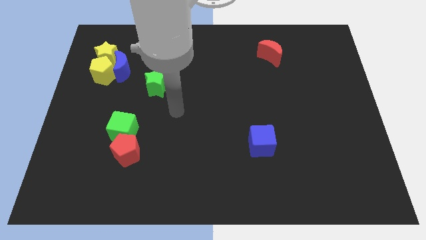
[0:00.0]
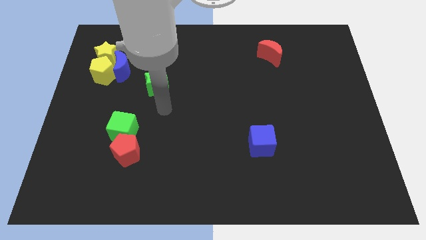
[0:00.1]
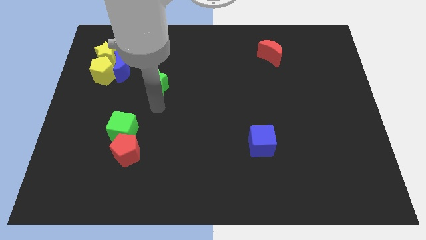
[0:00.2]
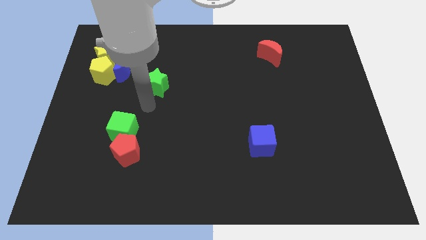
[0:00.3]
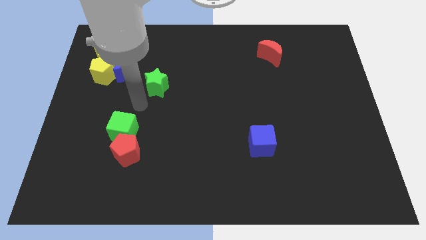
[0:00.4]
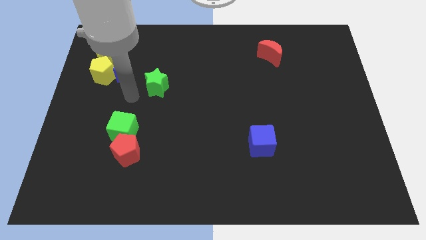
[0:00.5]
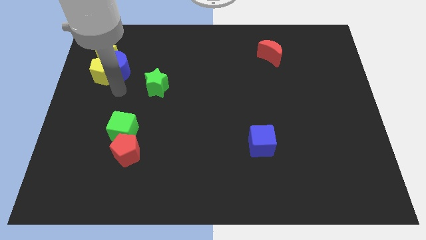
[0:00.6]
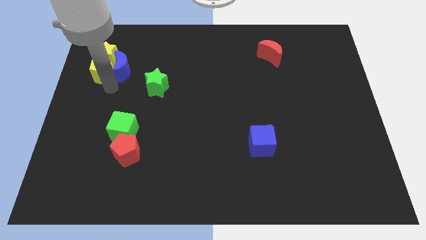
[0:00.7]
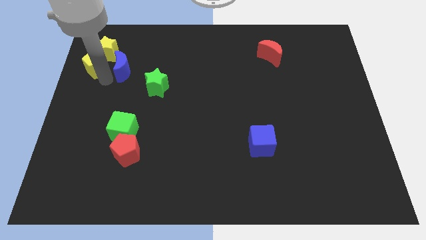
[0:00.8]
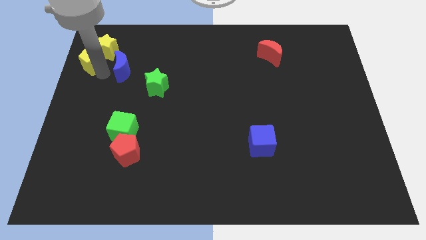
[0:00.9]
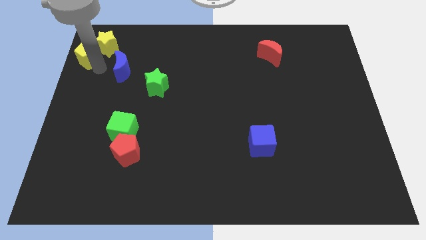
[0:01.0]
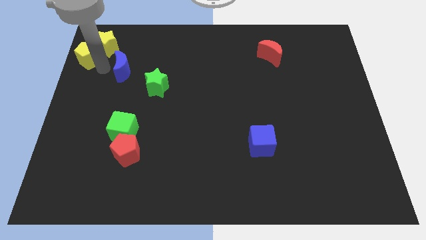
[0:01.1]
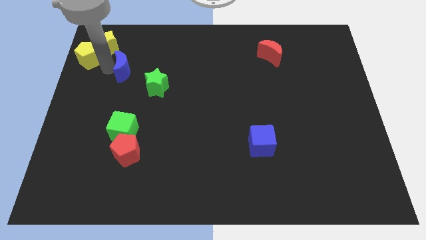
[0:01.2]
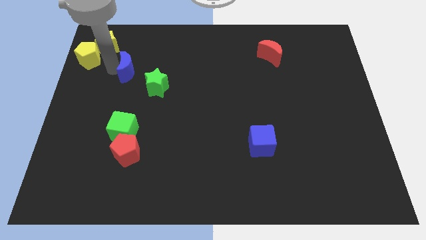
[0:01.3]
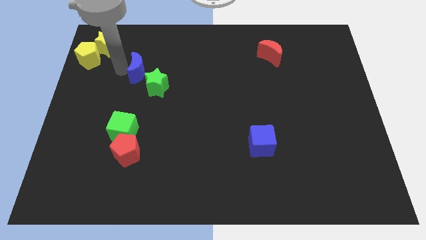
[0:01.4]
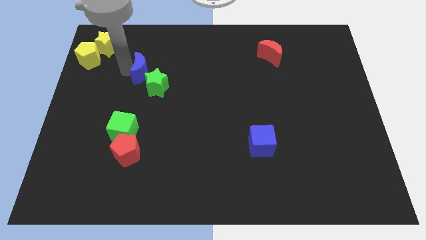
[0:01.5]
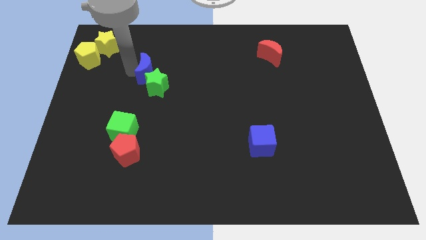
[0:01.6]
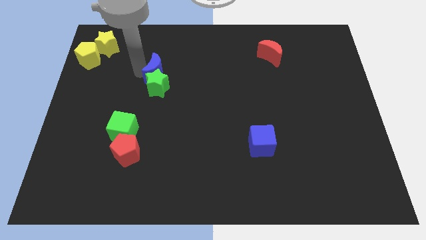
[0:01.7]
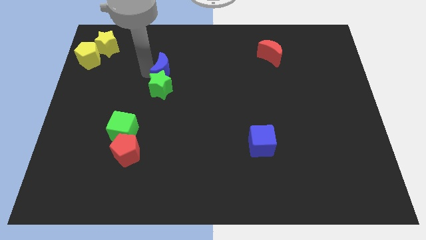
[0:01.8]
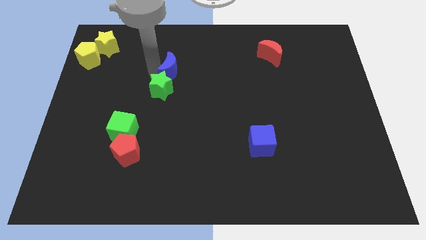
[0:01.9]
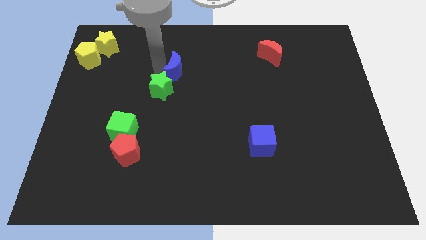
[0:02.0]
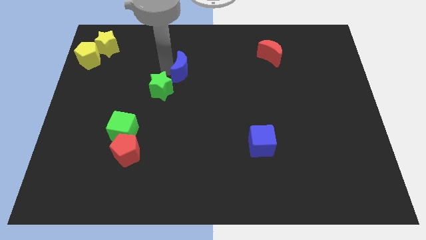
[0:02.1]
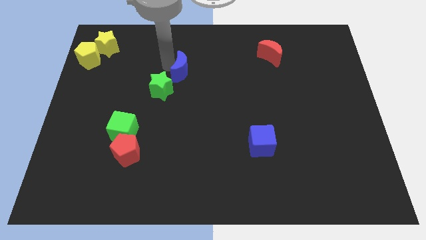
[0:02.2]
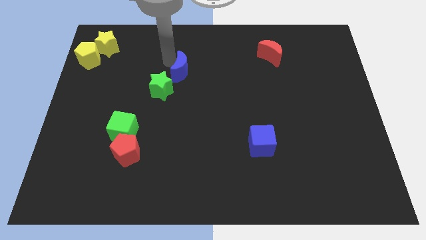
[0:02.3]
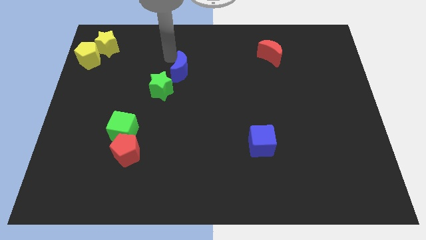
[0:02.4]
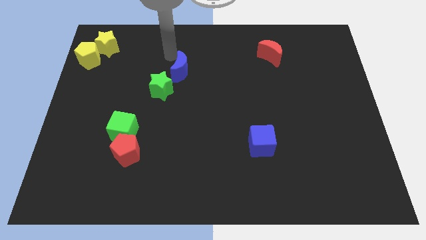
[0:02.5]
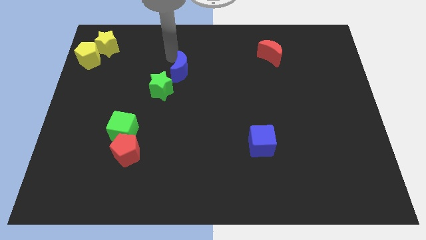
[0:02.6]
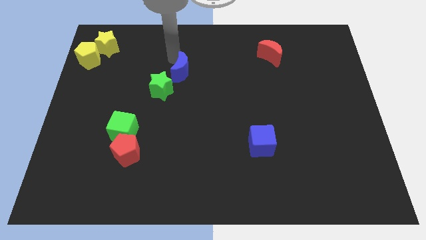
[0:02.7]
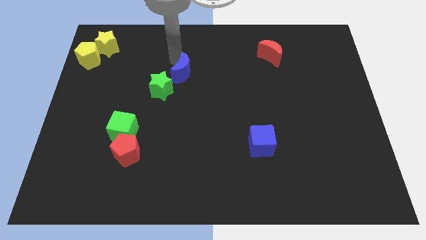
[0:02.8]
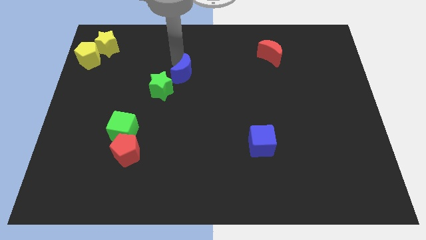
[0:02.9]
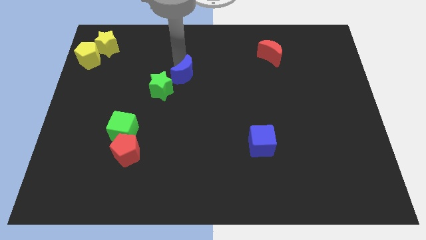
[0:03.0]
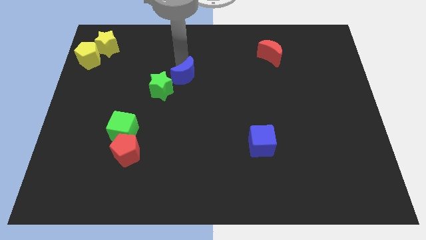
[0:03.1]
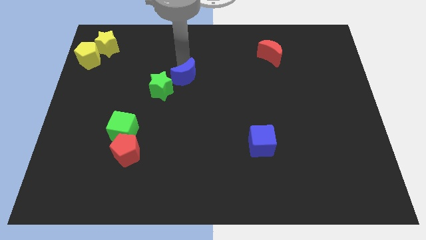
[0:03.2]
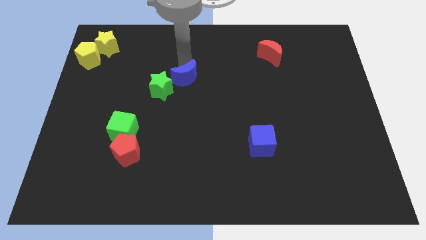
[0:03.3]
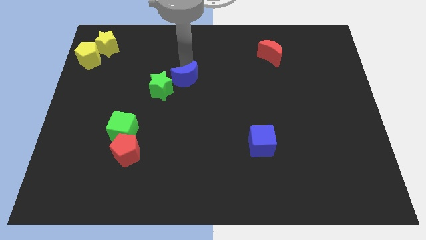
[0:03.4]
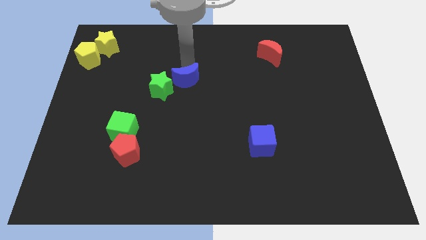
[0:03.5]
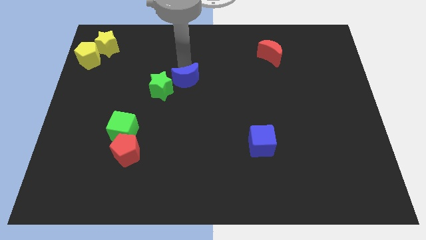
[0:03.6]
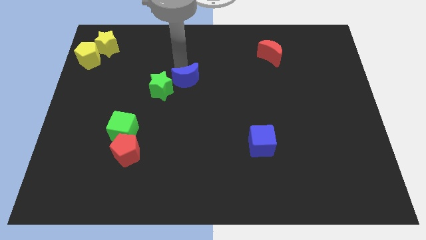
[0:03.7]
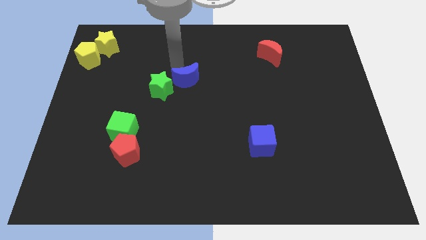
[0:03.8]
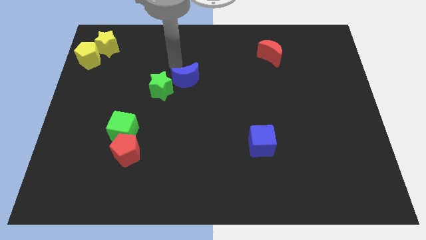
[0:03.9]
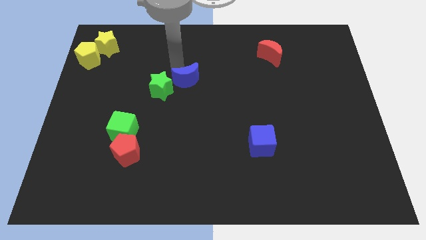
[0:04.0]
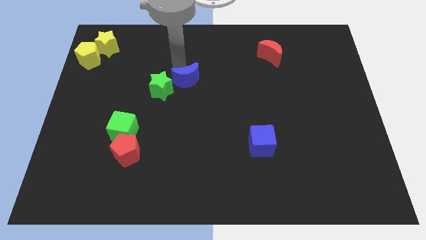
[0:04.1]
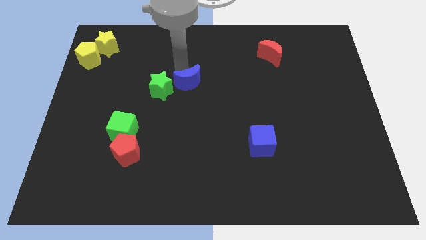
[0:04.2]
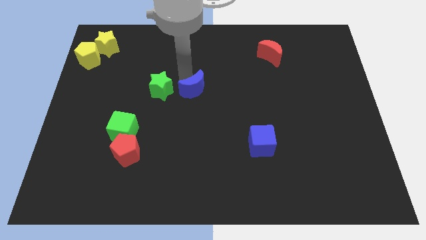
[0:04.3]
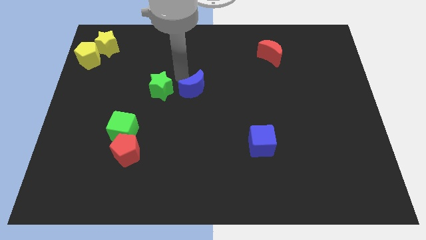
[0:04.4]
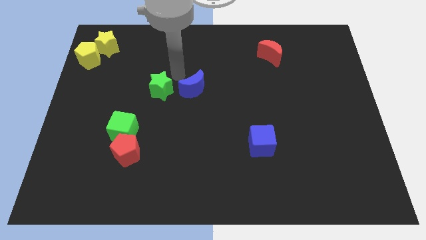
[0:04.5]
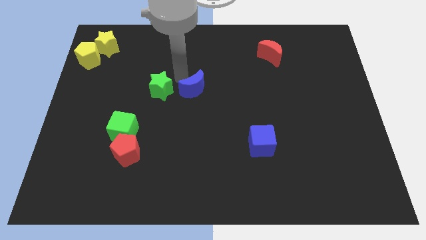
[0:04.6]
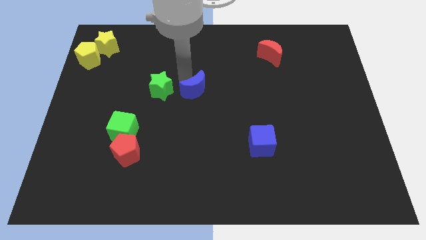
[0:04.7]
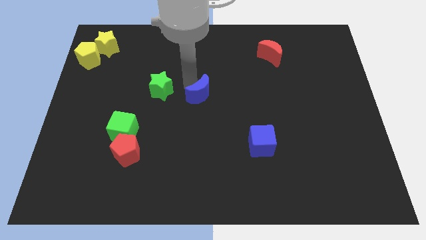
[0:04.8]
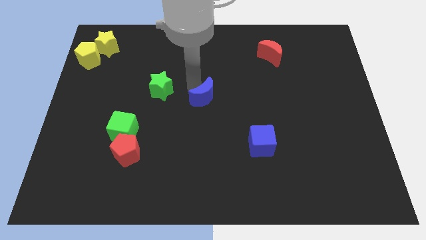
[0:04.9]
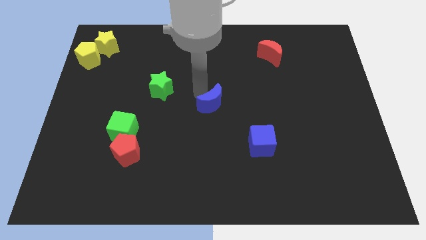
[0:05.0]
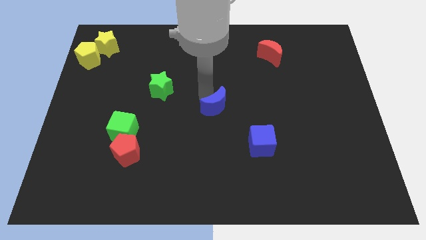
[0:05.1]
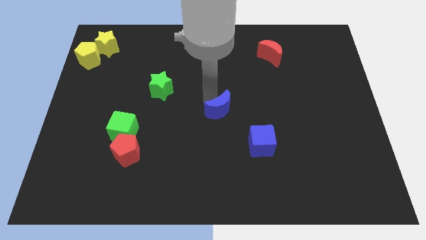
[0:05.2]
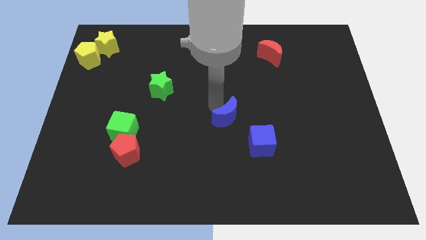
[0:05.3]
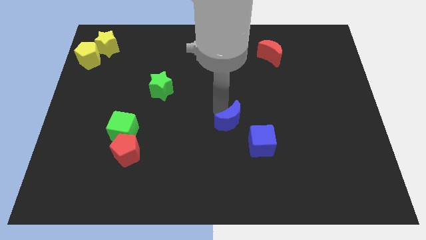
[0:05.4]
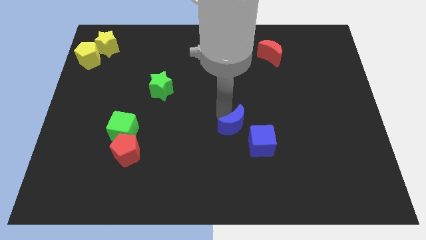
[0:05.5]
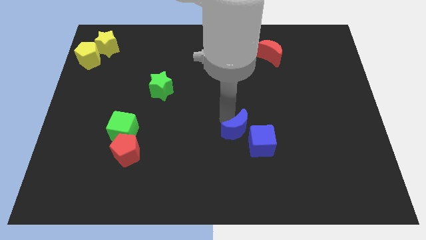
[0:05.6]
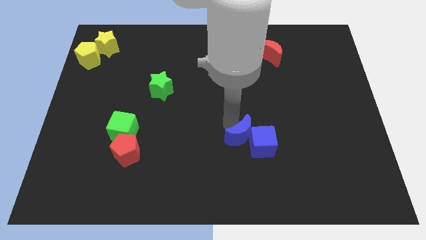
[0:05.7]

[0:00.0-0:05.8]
slide the blue moon close to the blue cube

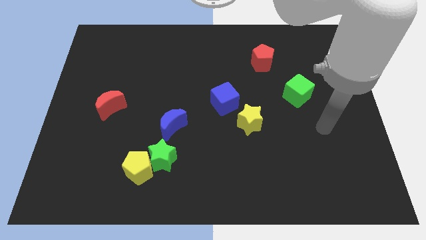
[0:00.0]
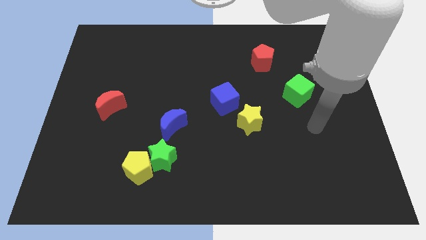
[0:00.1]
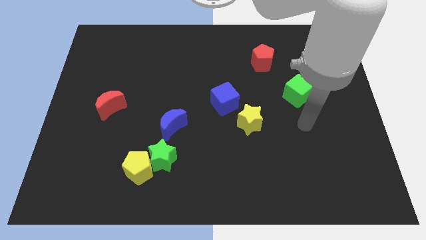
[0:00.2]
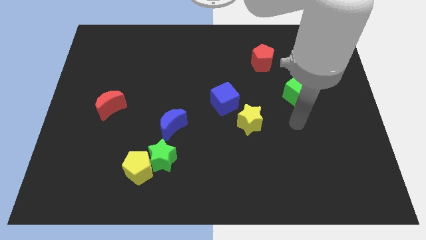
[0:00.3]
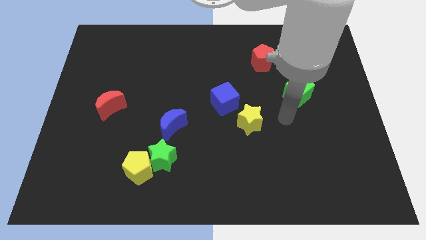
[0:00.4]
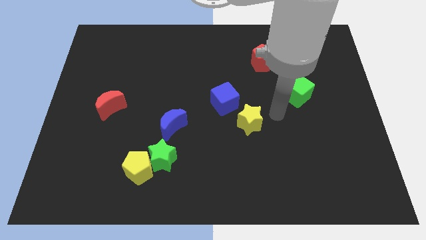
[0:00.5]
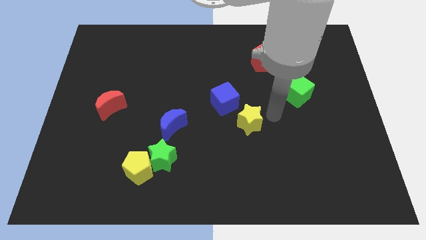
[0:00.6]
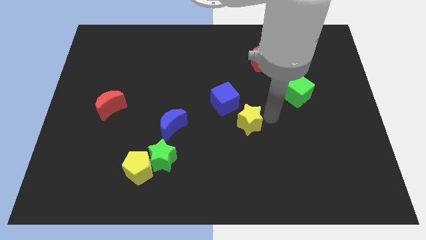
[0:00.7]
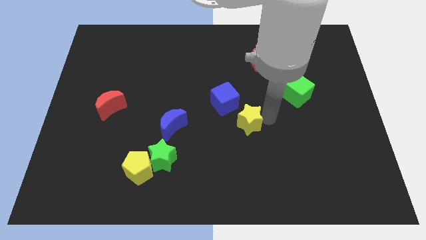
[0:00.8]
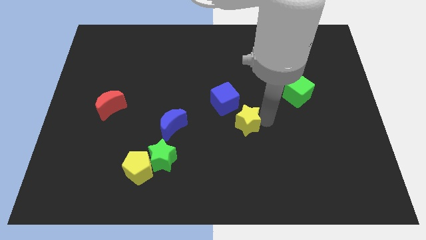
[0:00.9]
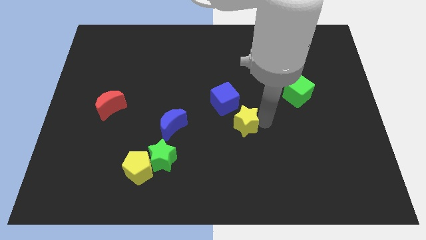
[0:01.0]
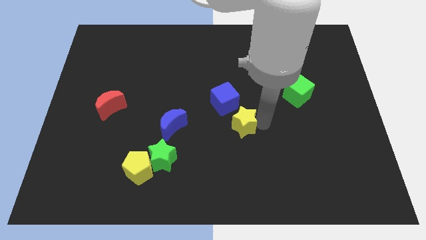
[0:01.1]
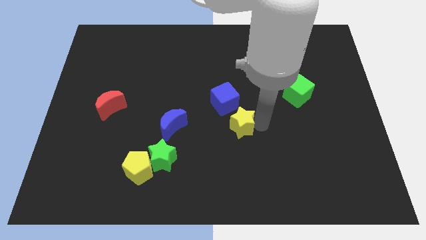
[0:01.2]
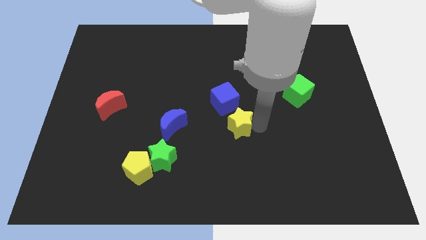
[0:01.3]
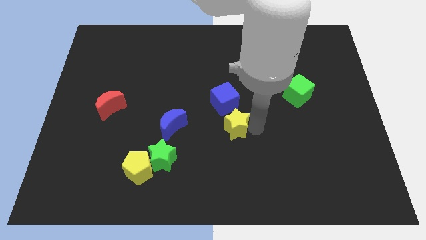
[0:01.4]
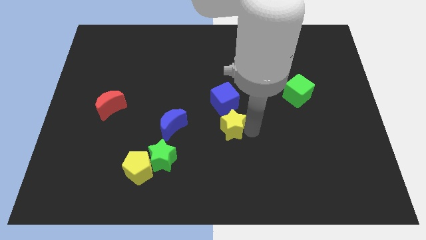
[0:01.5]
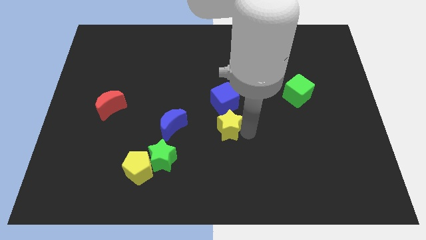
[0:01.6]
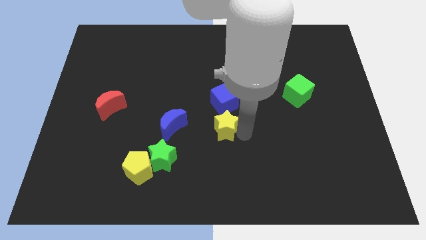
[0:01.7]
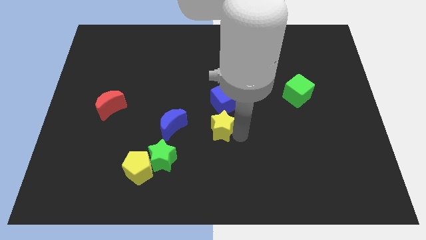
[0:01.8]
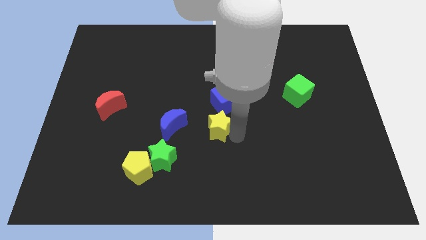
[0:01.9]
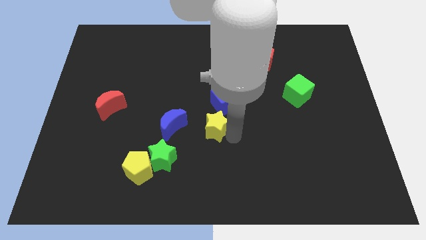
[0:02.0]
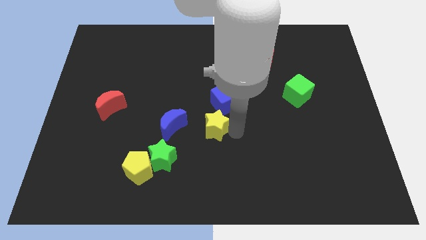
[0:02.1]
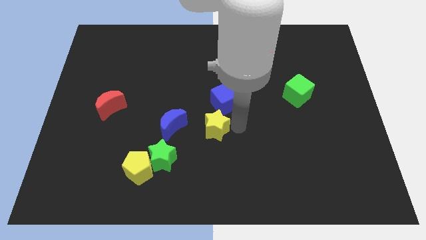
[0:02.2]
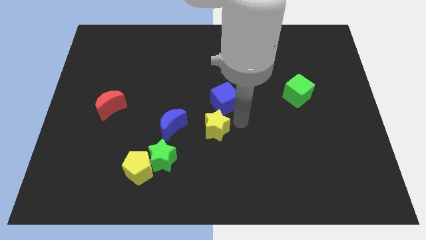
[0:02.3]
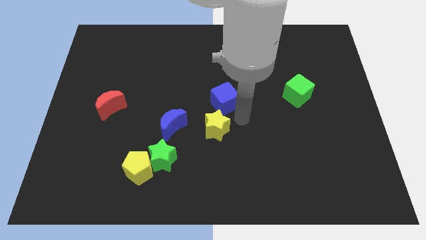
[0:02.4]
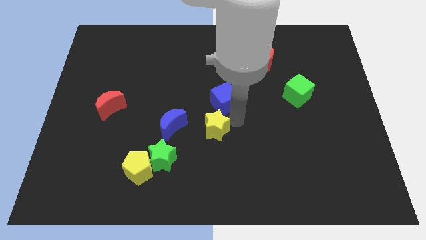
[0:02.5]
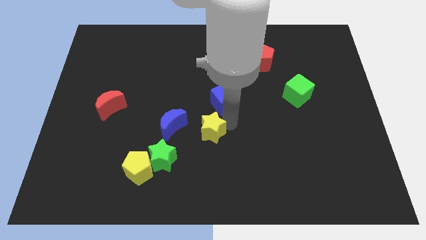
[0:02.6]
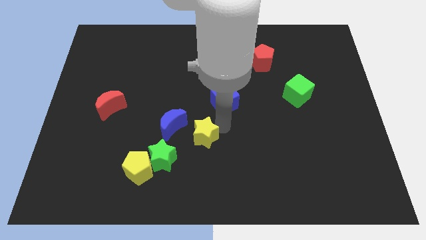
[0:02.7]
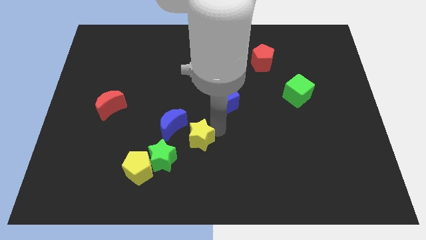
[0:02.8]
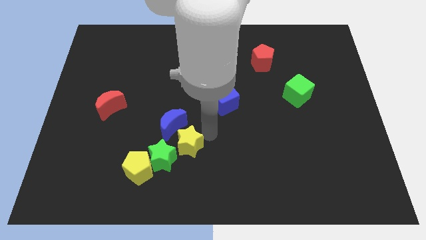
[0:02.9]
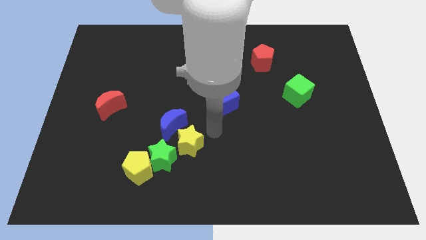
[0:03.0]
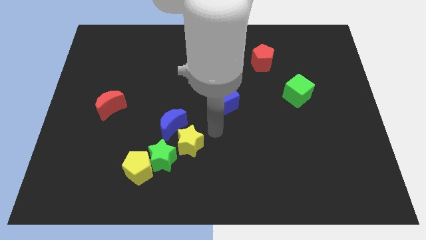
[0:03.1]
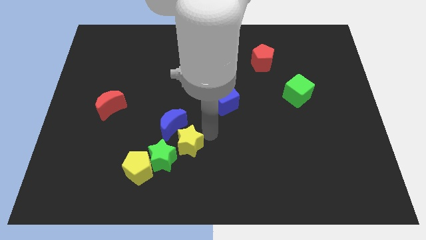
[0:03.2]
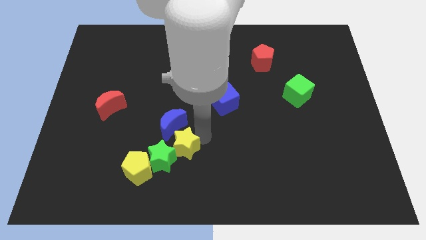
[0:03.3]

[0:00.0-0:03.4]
move the yellow star next to the green star
